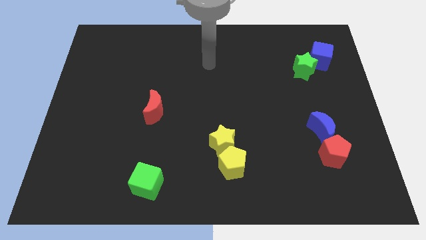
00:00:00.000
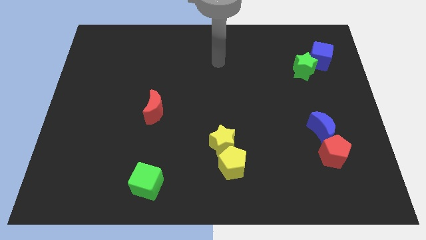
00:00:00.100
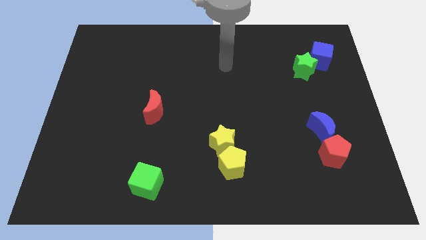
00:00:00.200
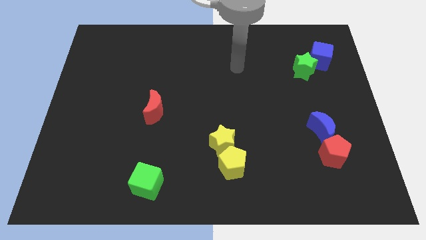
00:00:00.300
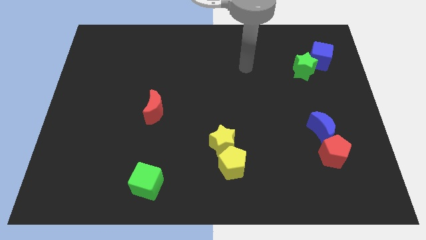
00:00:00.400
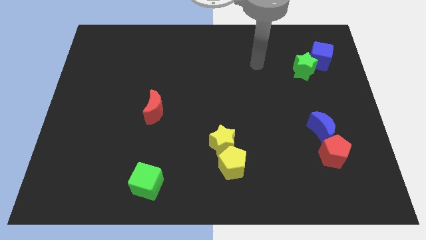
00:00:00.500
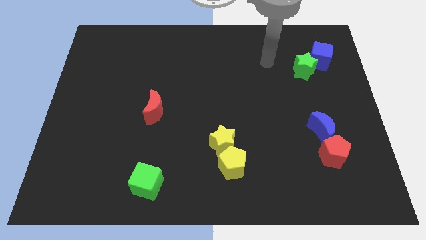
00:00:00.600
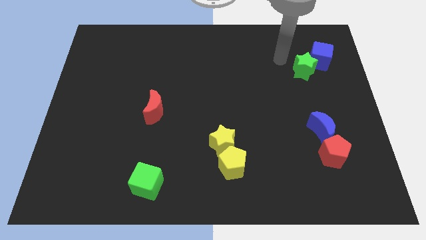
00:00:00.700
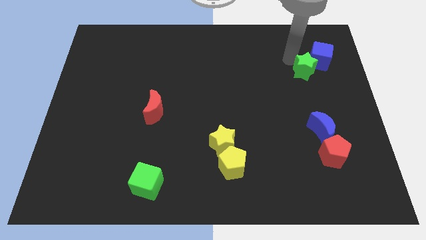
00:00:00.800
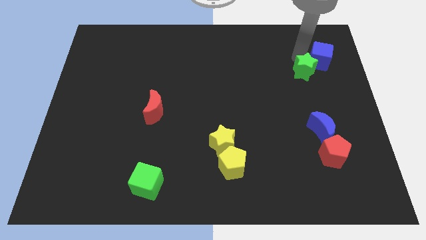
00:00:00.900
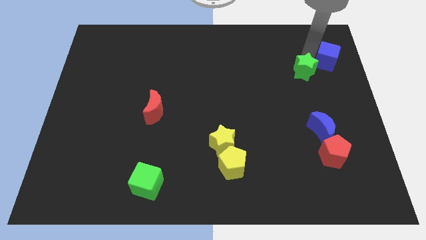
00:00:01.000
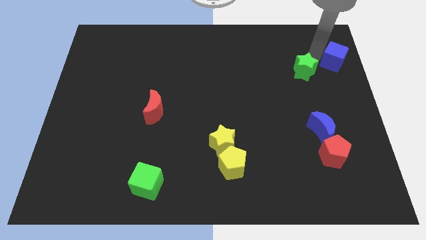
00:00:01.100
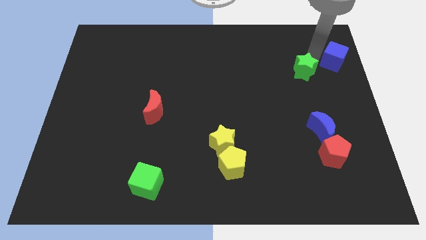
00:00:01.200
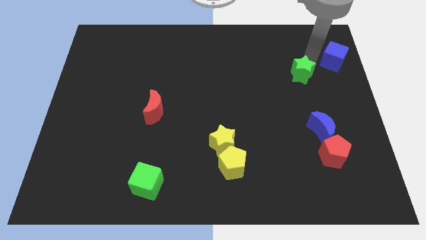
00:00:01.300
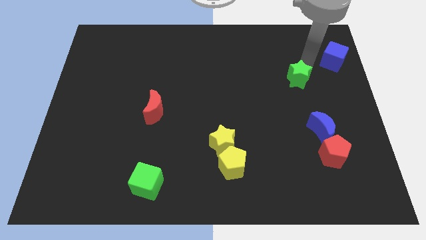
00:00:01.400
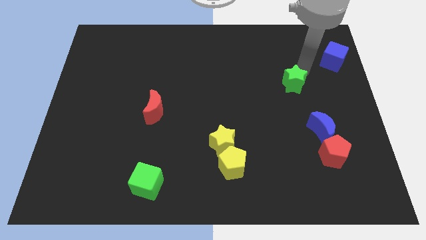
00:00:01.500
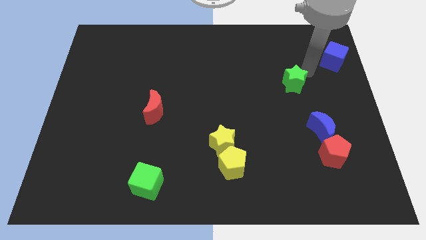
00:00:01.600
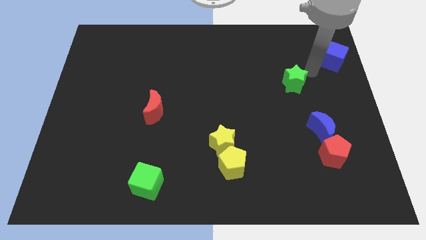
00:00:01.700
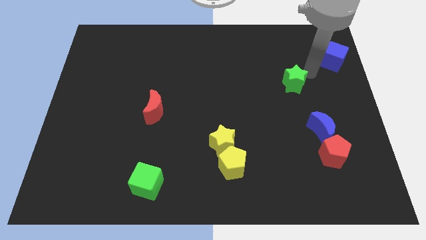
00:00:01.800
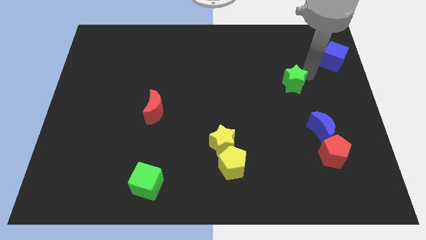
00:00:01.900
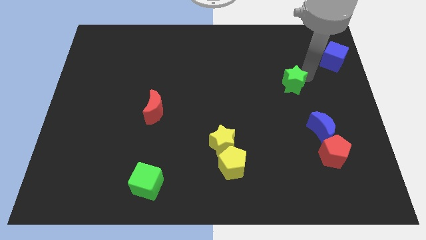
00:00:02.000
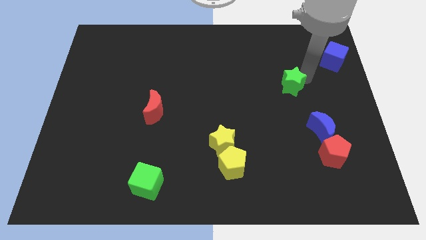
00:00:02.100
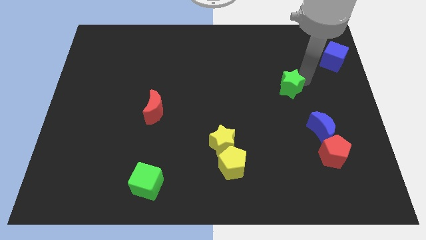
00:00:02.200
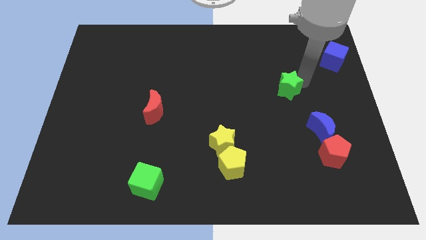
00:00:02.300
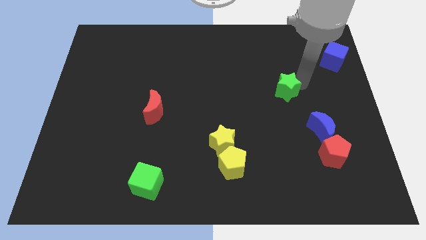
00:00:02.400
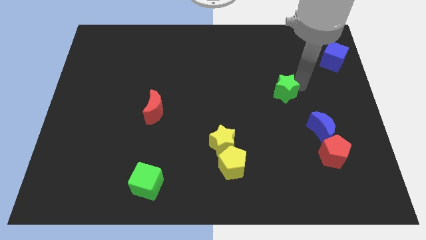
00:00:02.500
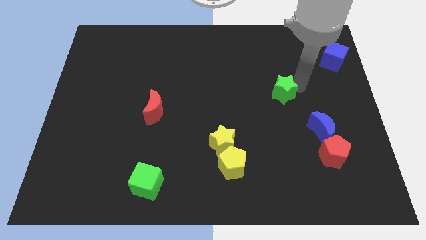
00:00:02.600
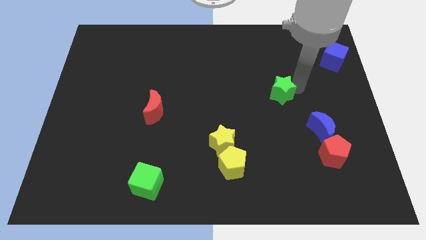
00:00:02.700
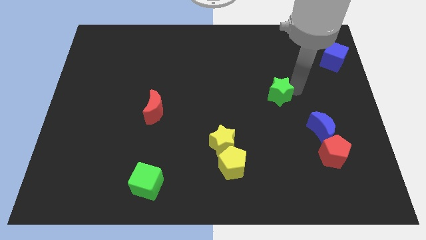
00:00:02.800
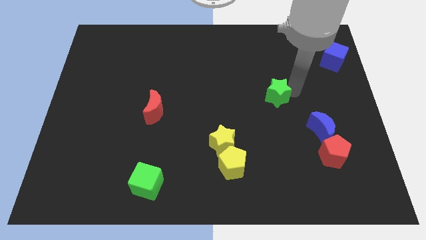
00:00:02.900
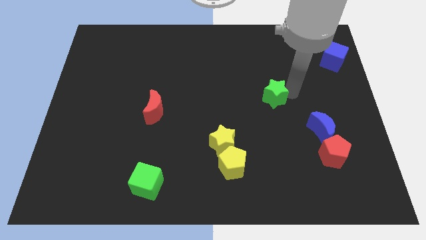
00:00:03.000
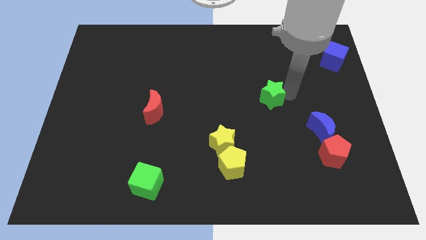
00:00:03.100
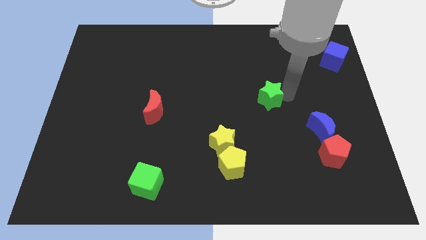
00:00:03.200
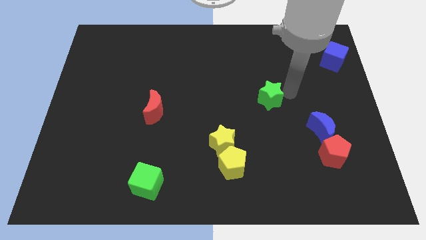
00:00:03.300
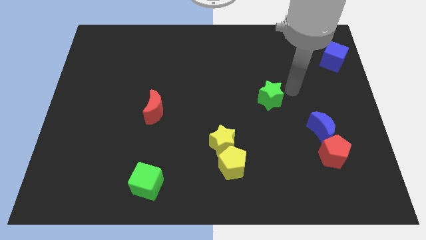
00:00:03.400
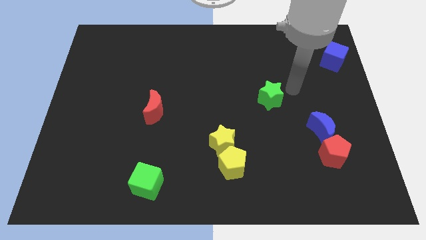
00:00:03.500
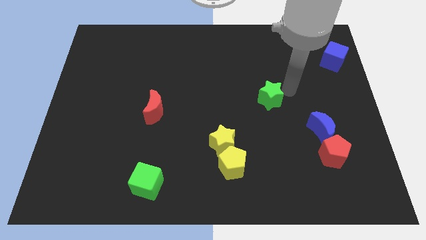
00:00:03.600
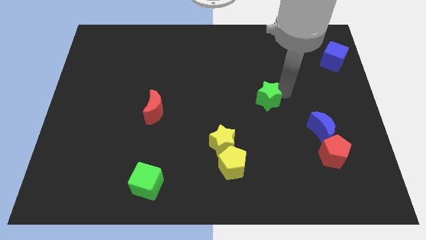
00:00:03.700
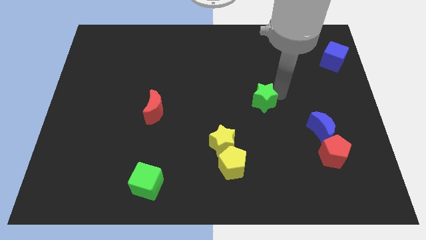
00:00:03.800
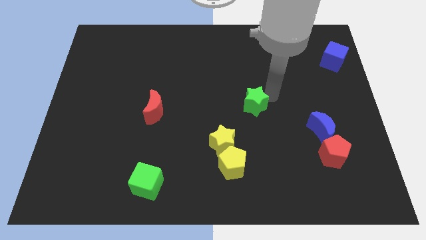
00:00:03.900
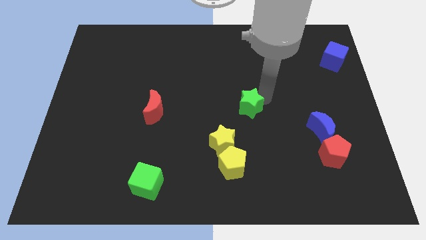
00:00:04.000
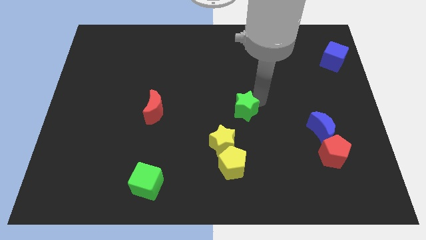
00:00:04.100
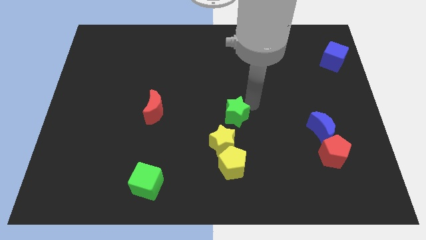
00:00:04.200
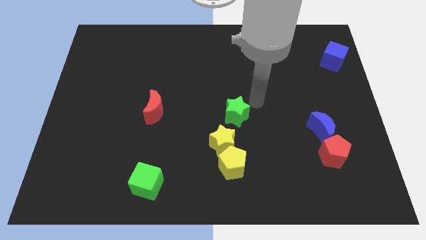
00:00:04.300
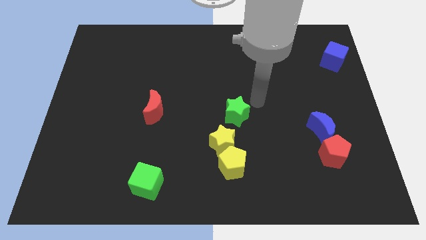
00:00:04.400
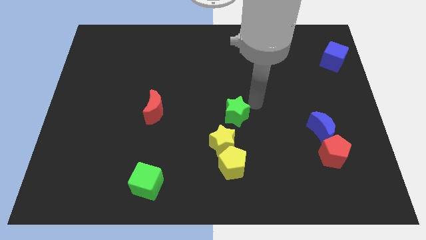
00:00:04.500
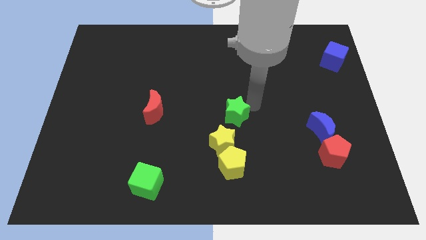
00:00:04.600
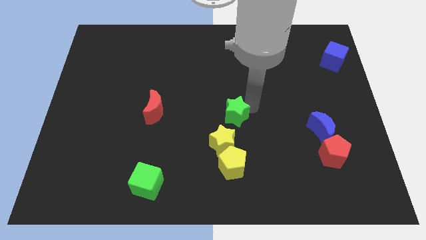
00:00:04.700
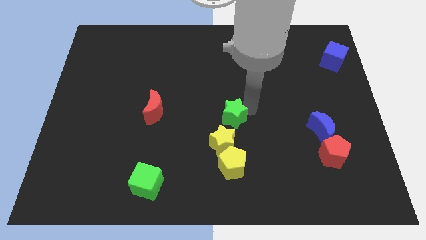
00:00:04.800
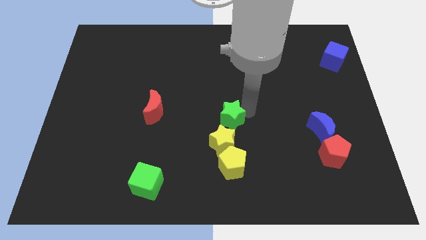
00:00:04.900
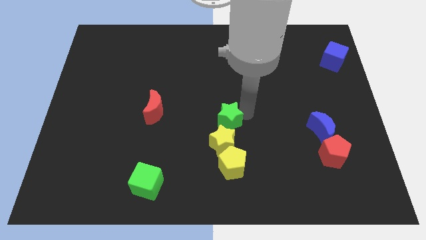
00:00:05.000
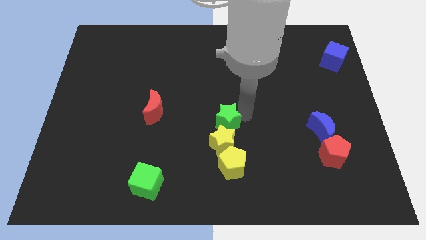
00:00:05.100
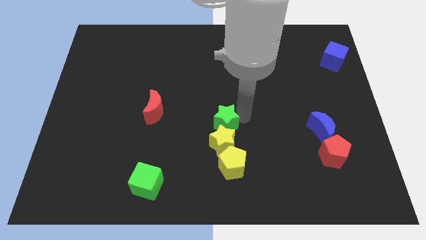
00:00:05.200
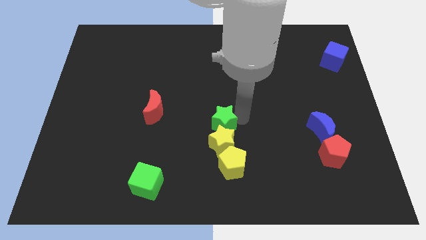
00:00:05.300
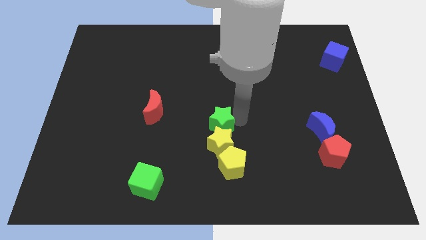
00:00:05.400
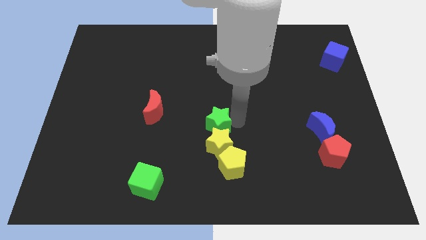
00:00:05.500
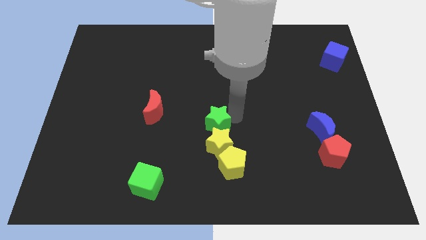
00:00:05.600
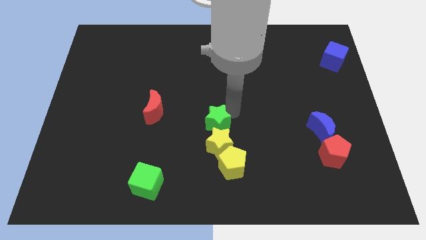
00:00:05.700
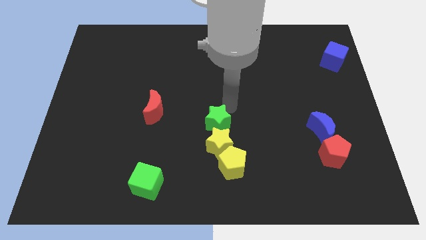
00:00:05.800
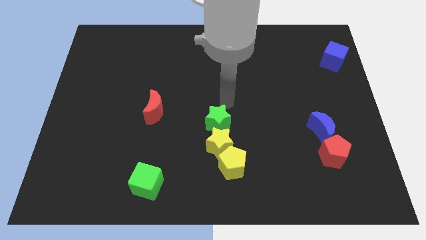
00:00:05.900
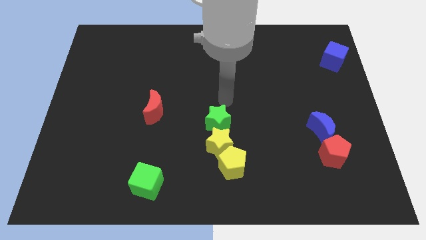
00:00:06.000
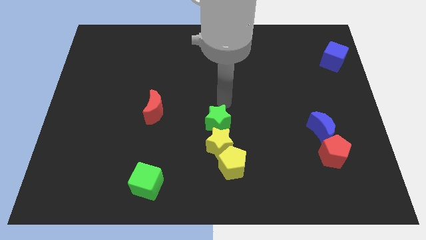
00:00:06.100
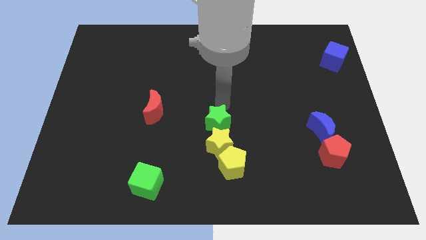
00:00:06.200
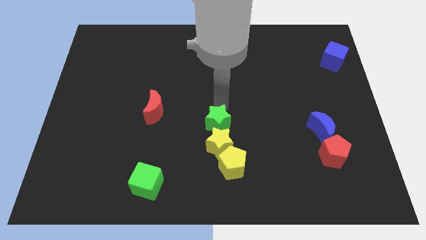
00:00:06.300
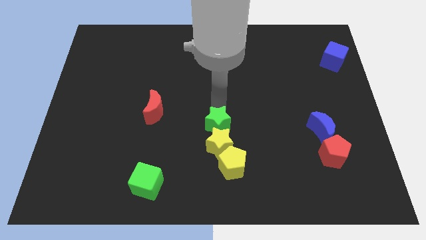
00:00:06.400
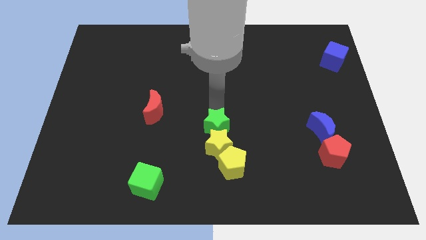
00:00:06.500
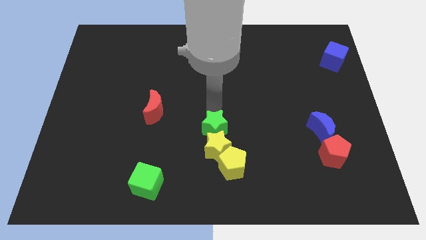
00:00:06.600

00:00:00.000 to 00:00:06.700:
move the green star diagonally up and to the left of the yellow pentagon
